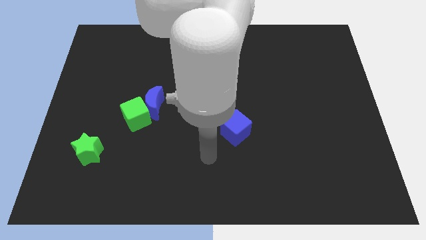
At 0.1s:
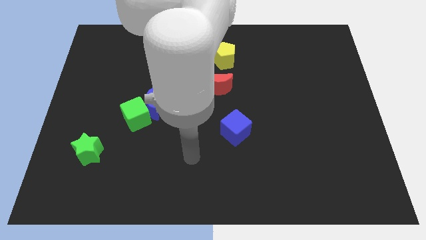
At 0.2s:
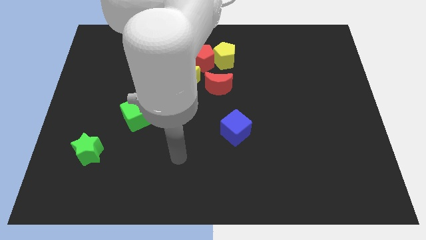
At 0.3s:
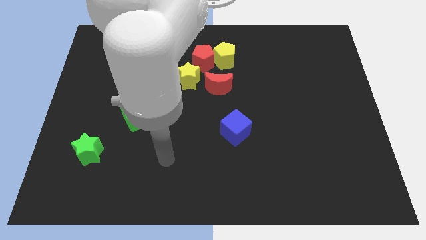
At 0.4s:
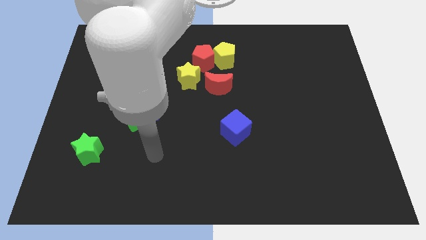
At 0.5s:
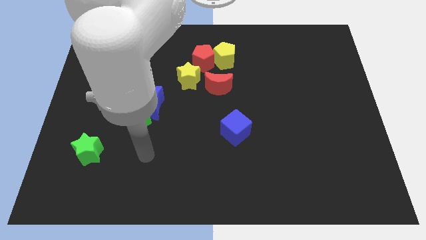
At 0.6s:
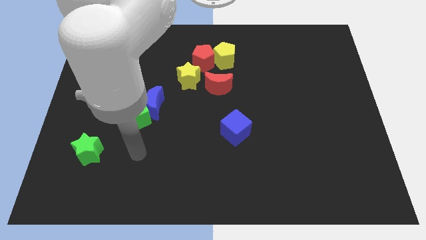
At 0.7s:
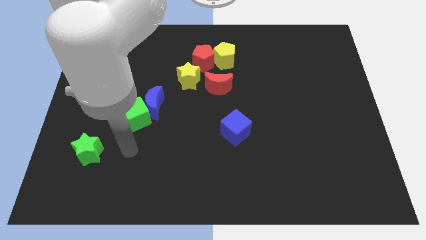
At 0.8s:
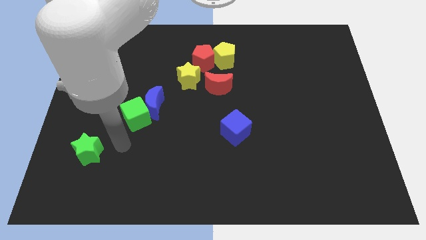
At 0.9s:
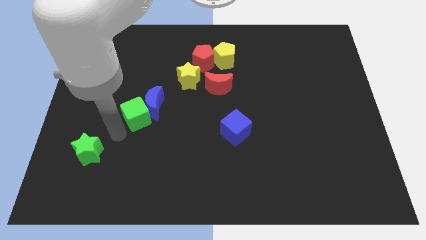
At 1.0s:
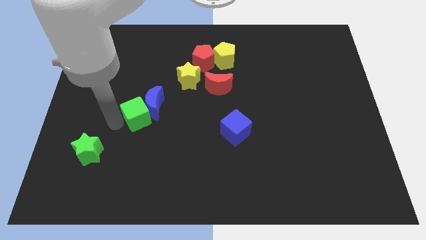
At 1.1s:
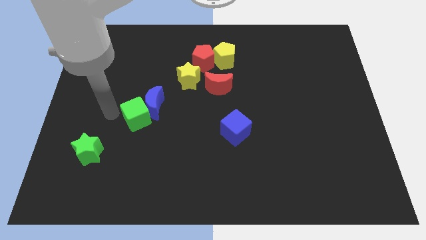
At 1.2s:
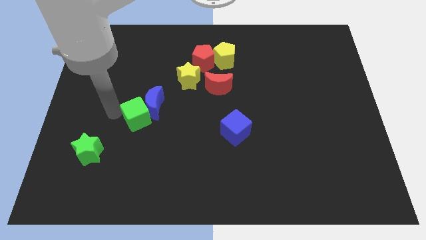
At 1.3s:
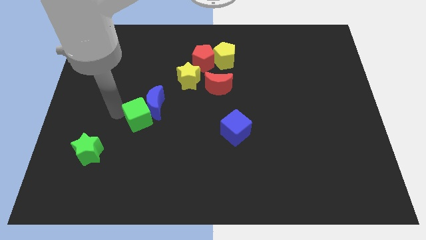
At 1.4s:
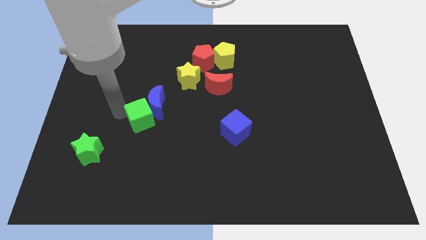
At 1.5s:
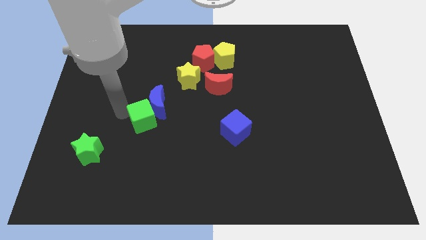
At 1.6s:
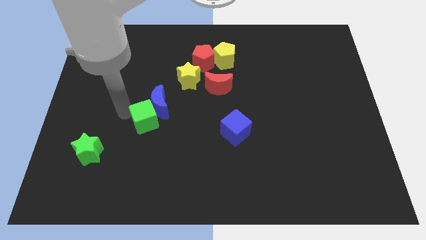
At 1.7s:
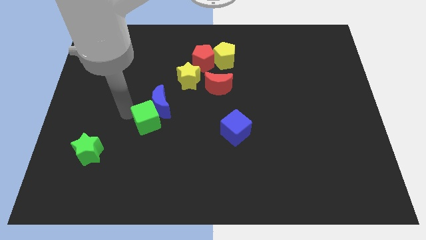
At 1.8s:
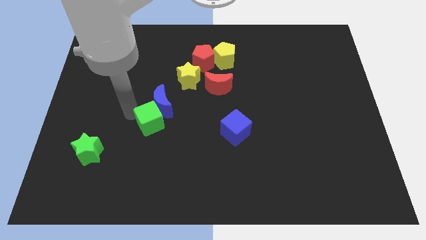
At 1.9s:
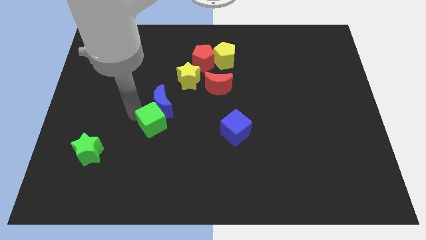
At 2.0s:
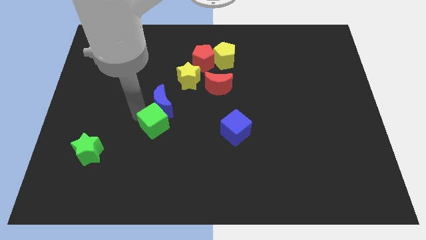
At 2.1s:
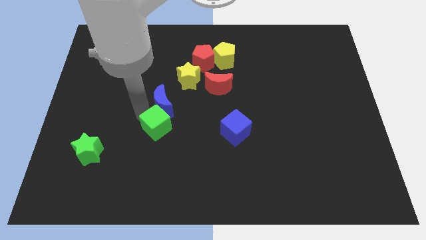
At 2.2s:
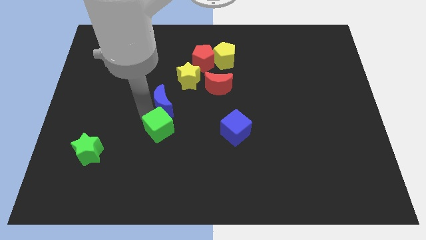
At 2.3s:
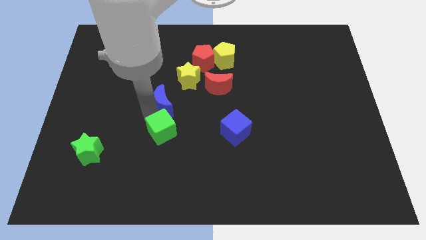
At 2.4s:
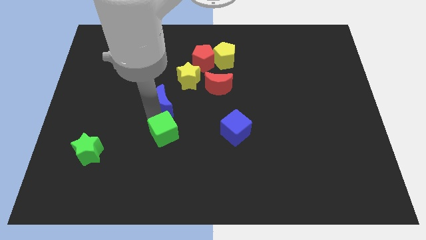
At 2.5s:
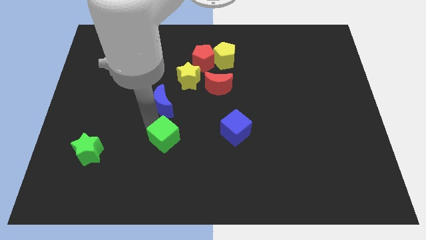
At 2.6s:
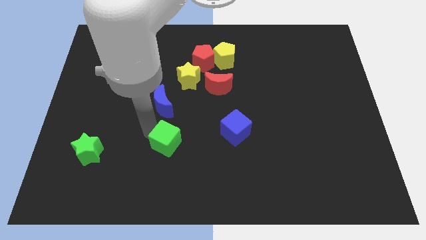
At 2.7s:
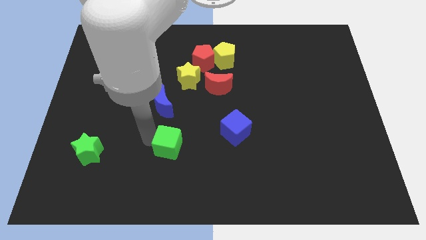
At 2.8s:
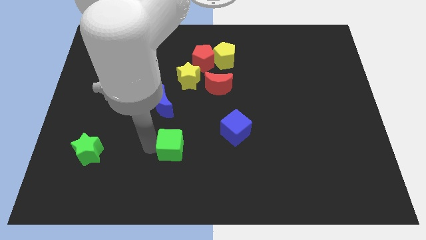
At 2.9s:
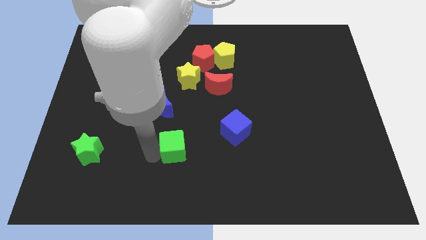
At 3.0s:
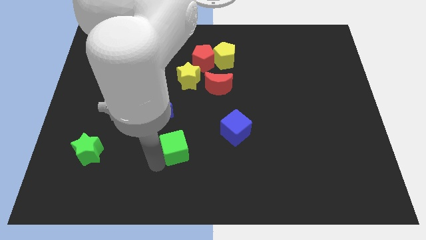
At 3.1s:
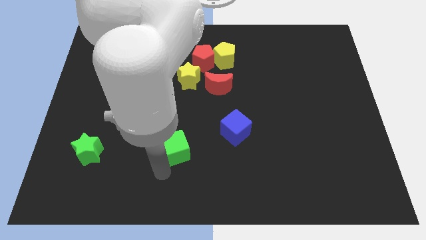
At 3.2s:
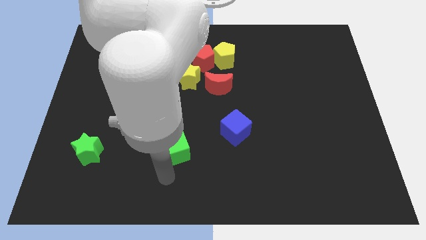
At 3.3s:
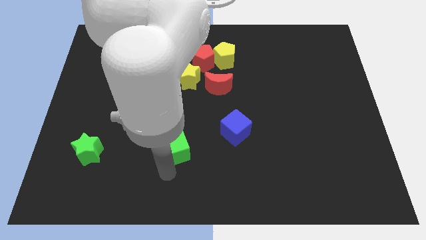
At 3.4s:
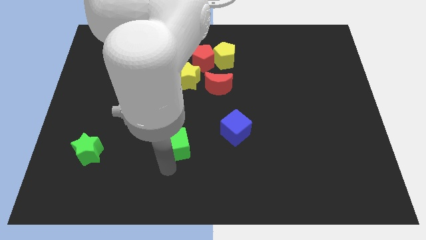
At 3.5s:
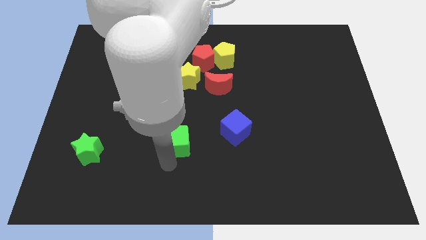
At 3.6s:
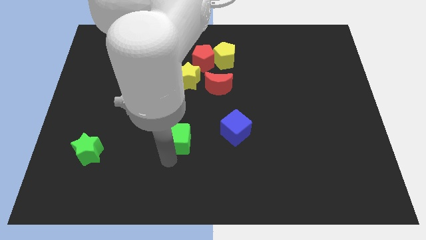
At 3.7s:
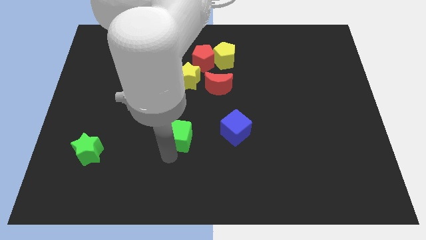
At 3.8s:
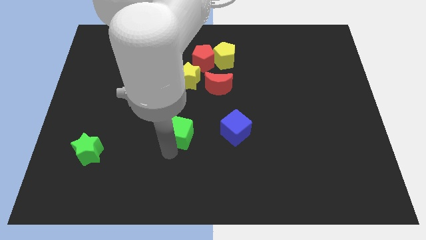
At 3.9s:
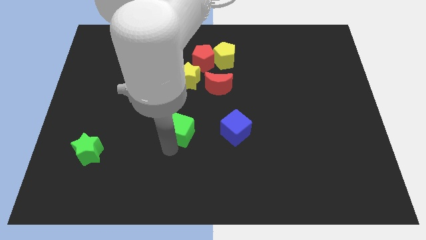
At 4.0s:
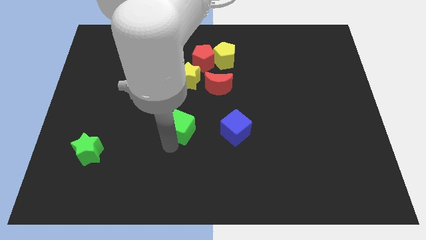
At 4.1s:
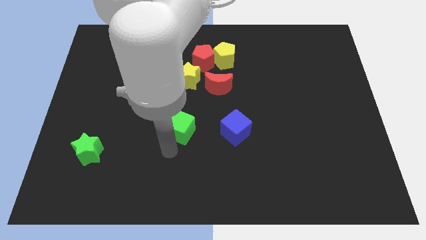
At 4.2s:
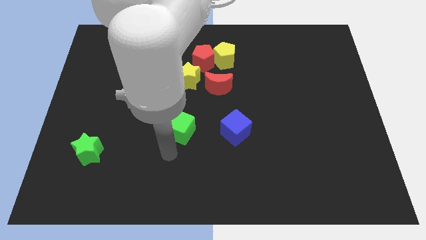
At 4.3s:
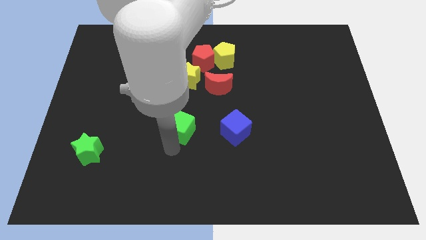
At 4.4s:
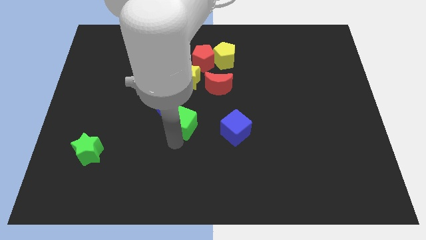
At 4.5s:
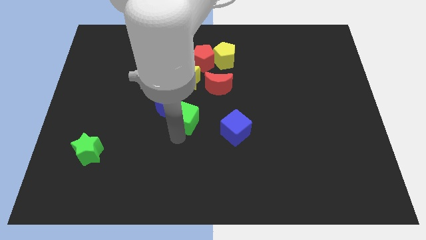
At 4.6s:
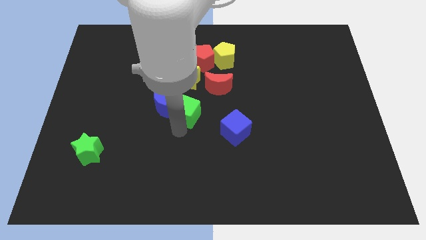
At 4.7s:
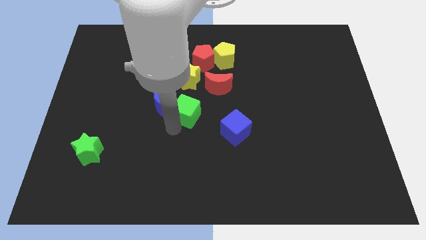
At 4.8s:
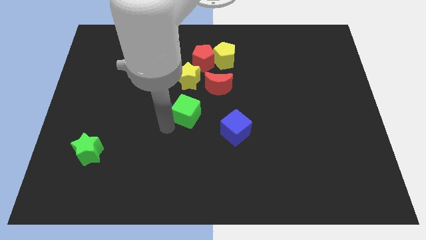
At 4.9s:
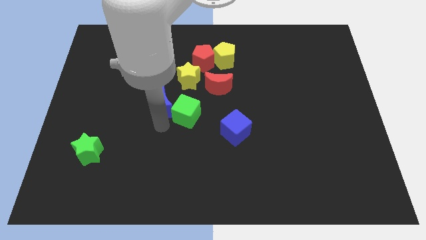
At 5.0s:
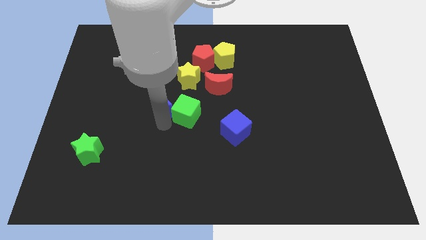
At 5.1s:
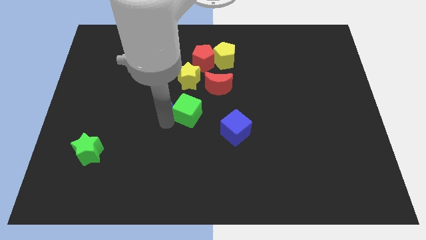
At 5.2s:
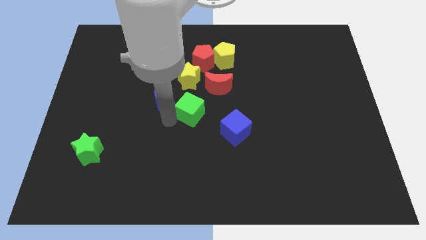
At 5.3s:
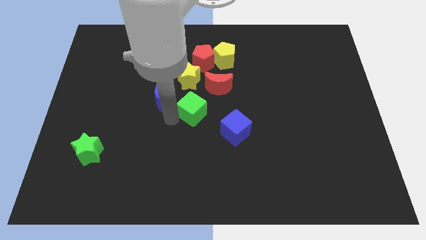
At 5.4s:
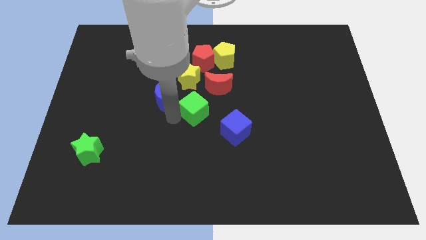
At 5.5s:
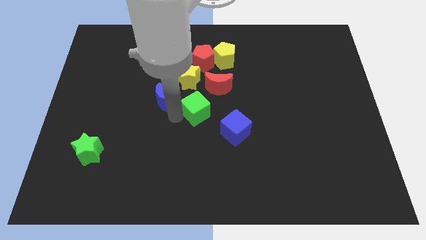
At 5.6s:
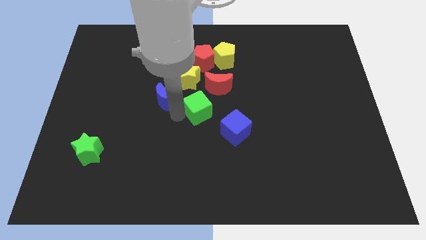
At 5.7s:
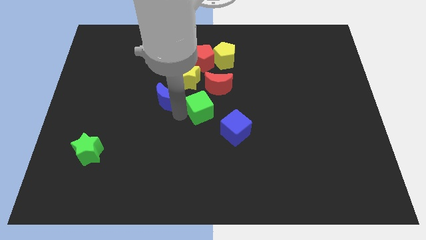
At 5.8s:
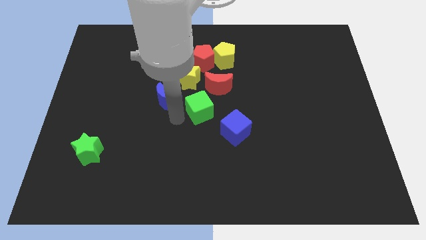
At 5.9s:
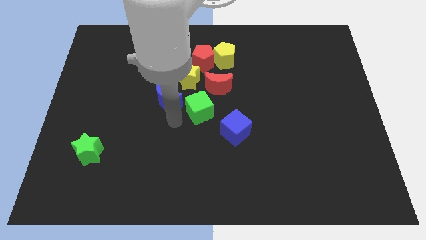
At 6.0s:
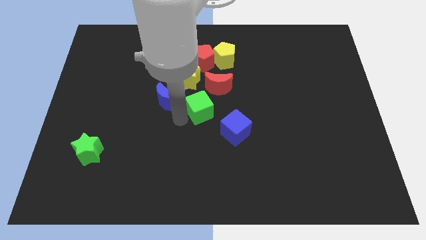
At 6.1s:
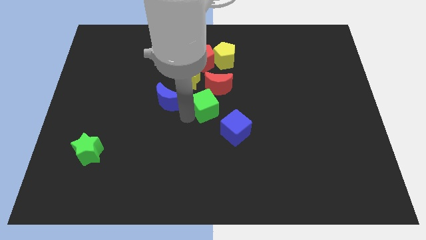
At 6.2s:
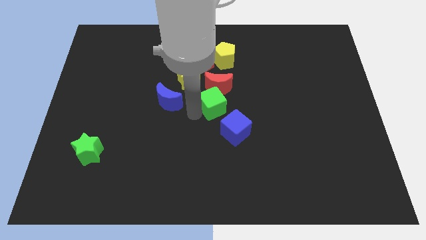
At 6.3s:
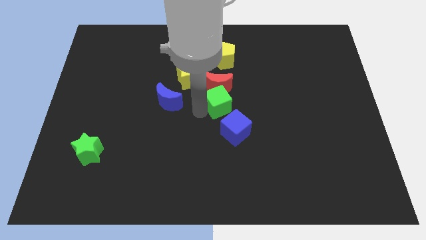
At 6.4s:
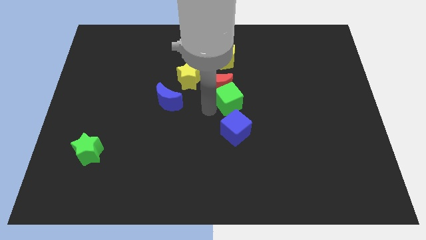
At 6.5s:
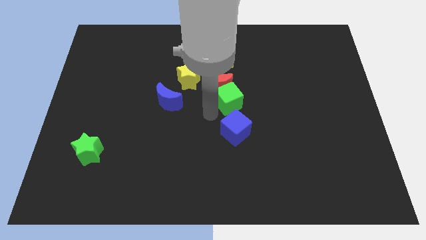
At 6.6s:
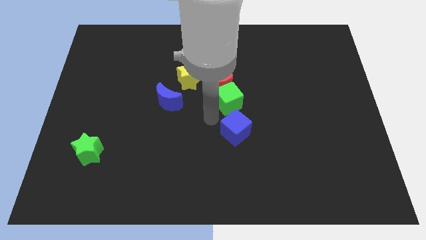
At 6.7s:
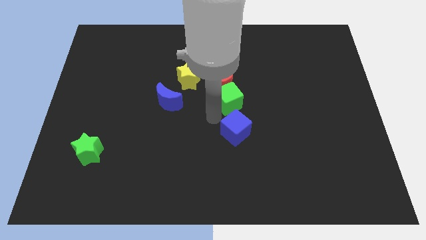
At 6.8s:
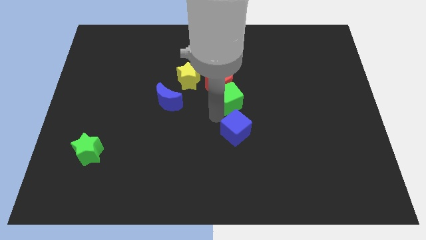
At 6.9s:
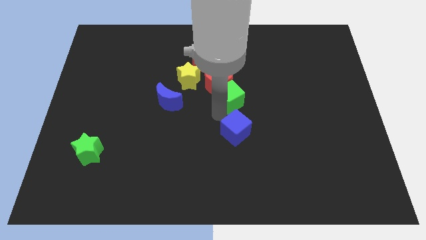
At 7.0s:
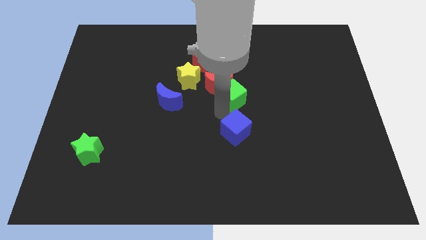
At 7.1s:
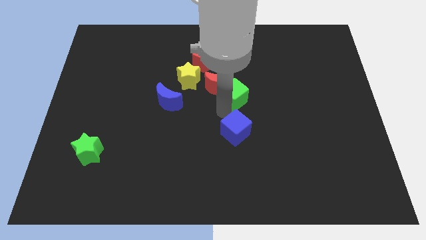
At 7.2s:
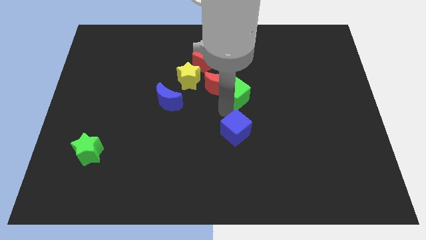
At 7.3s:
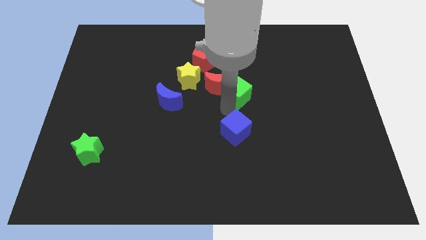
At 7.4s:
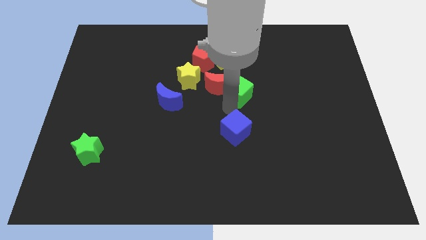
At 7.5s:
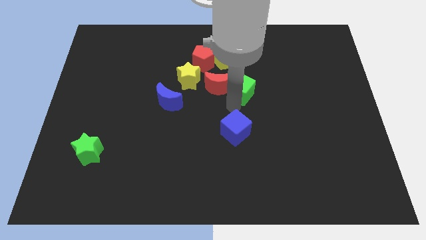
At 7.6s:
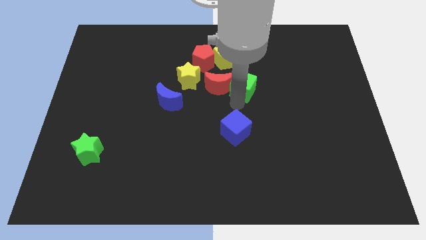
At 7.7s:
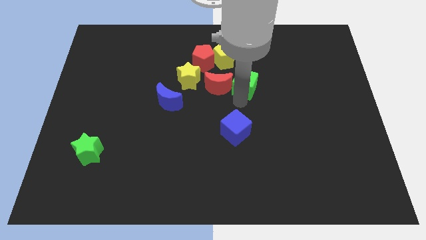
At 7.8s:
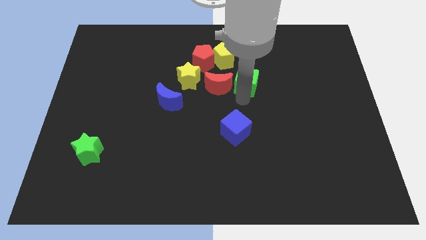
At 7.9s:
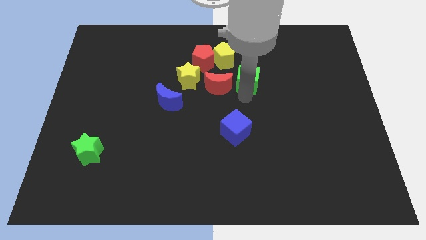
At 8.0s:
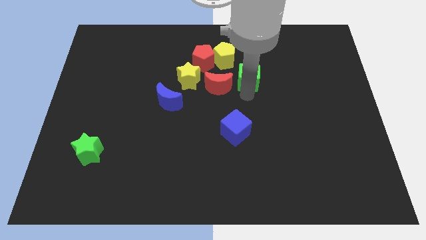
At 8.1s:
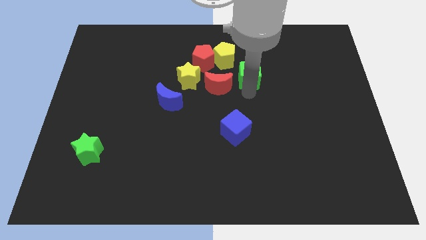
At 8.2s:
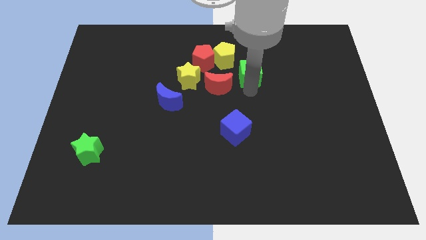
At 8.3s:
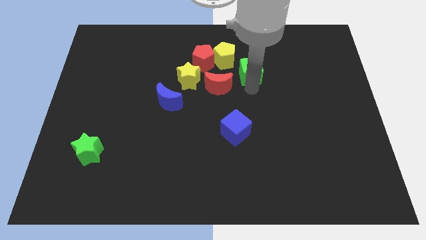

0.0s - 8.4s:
slide the green cube just right of the red pentagon
